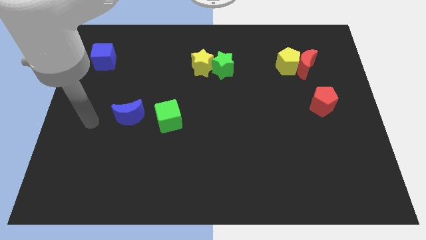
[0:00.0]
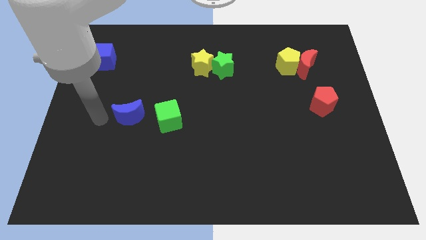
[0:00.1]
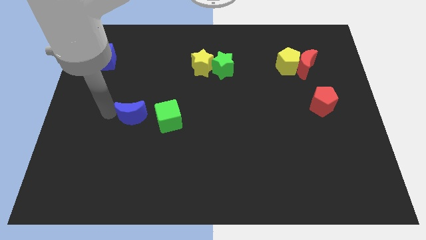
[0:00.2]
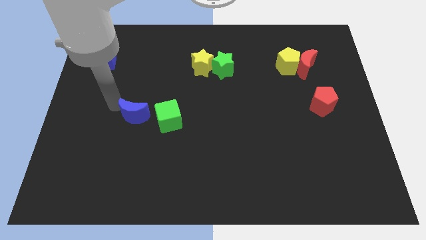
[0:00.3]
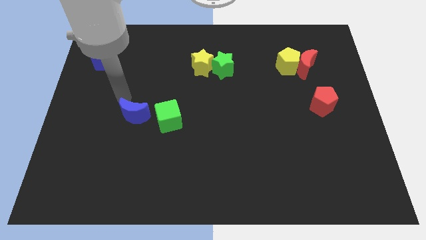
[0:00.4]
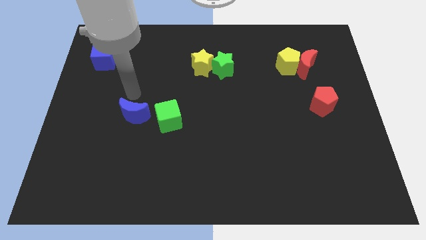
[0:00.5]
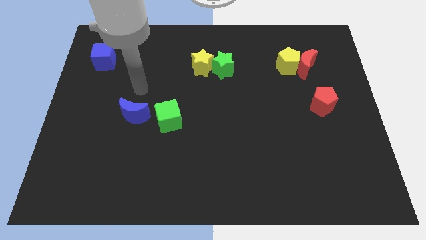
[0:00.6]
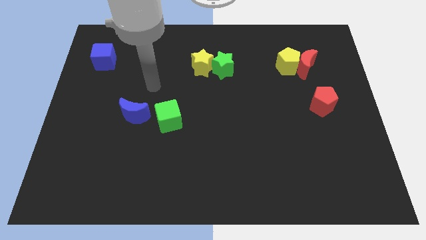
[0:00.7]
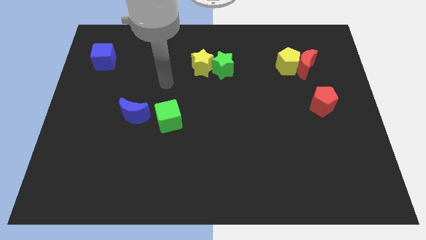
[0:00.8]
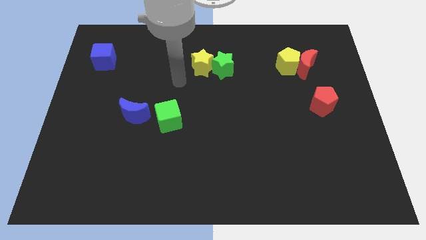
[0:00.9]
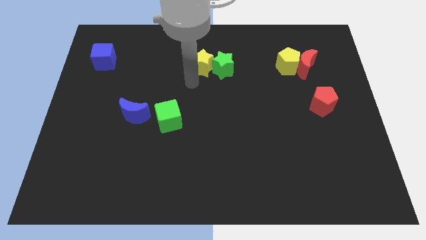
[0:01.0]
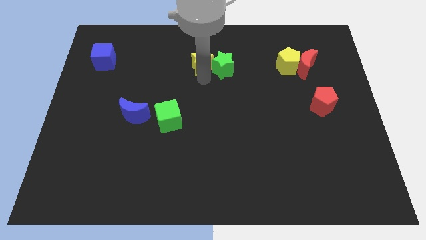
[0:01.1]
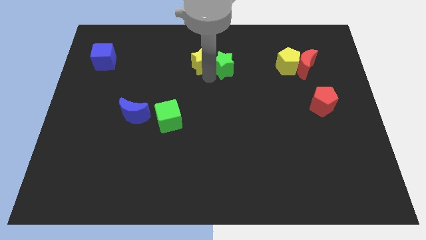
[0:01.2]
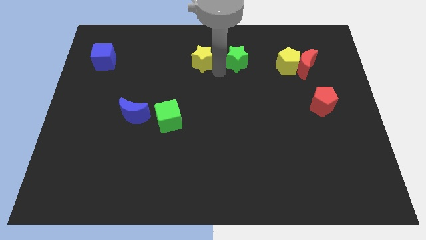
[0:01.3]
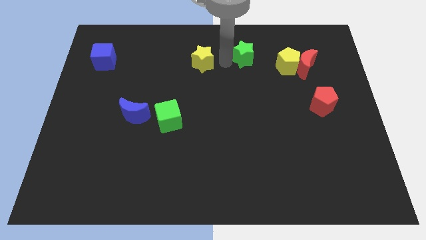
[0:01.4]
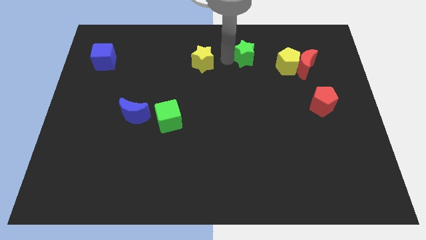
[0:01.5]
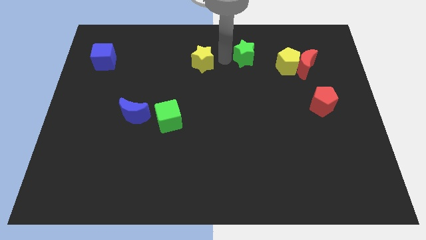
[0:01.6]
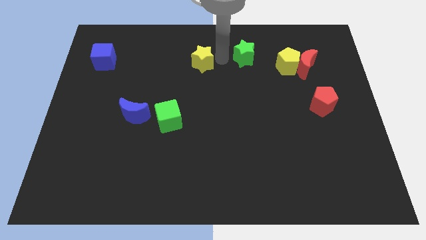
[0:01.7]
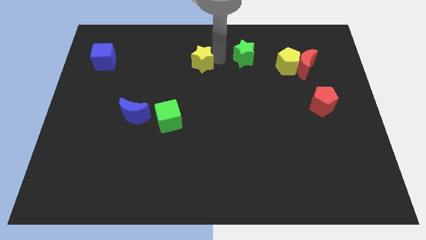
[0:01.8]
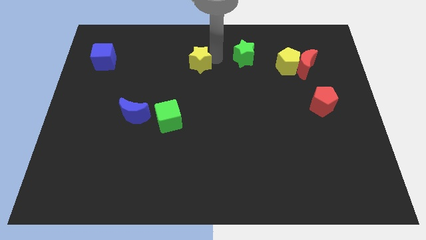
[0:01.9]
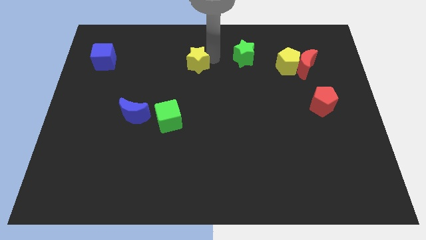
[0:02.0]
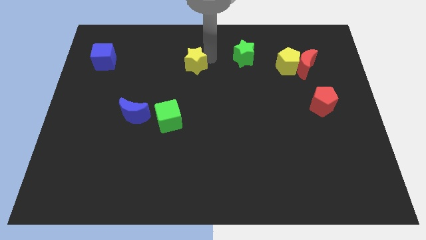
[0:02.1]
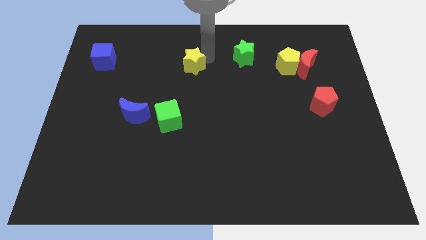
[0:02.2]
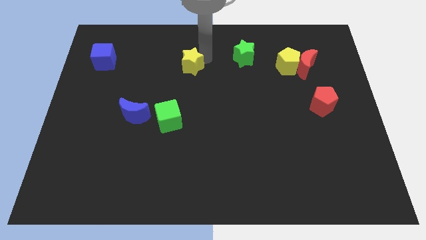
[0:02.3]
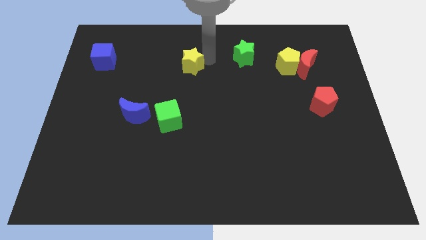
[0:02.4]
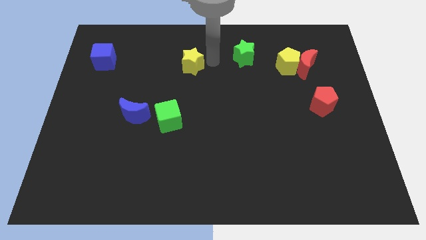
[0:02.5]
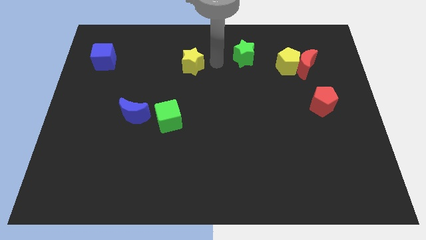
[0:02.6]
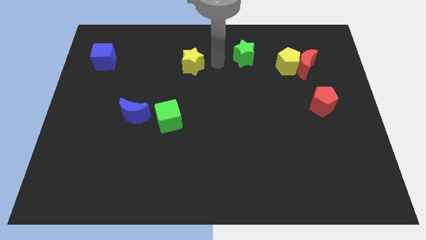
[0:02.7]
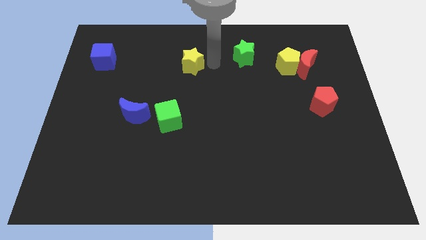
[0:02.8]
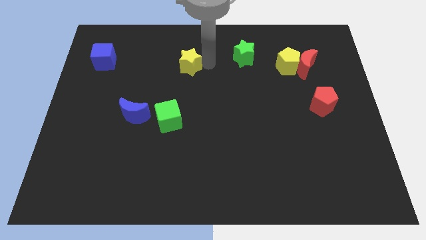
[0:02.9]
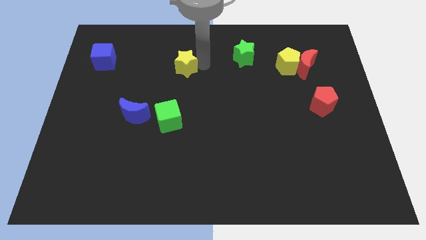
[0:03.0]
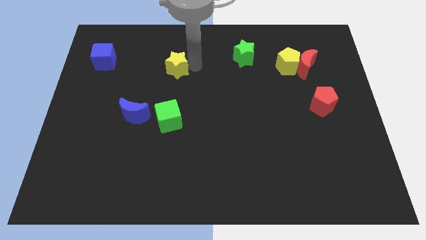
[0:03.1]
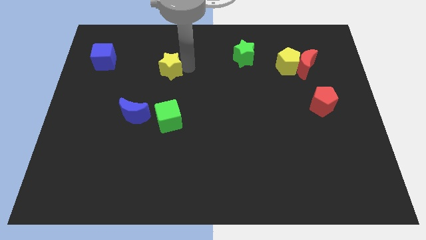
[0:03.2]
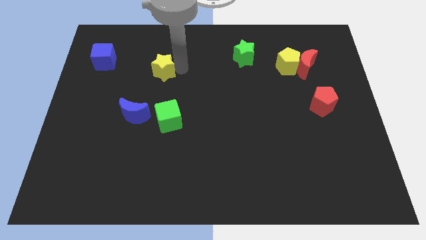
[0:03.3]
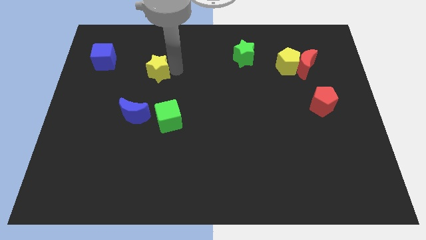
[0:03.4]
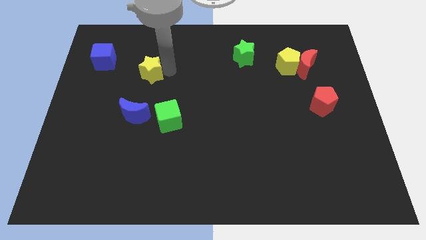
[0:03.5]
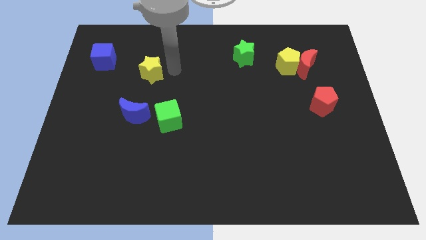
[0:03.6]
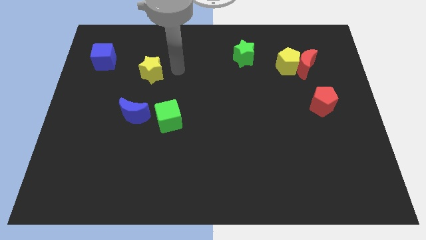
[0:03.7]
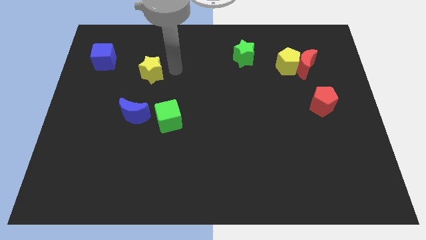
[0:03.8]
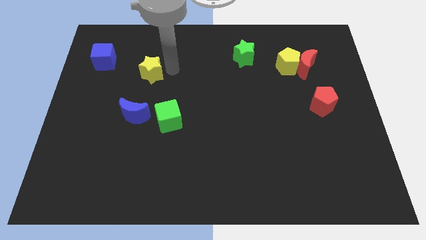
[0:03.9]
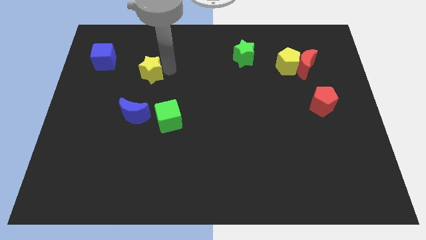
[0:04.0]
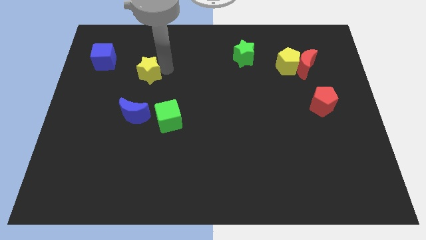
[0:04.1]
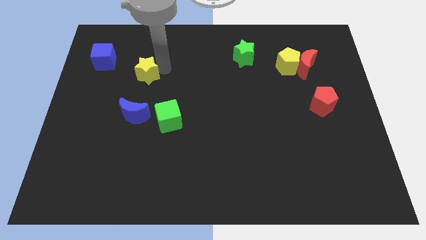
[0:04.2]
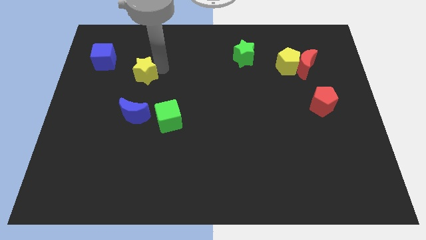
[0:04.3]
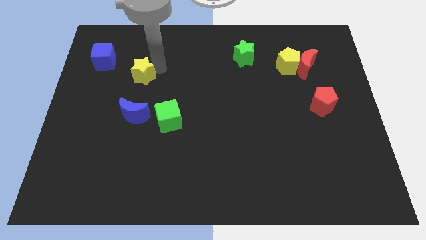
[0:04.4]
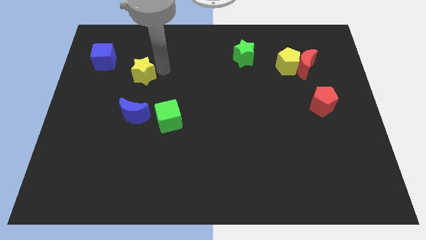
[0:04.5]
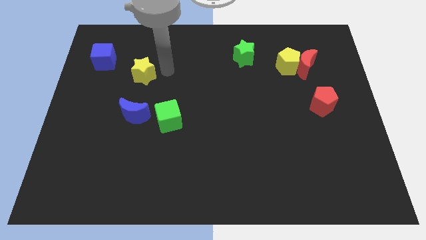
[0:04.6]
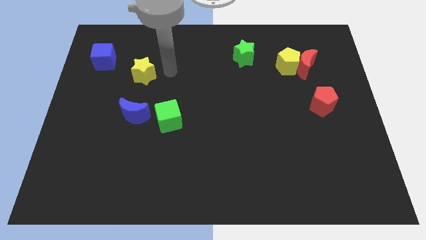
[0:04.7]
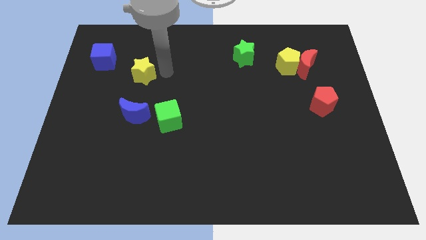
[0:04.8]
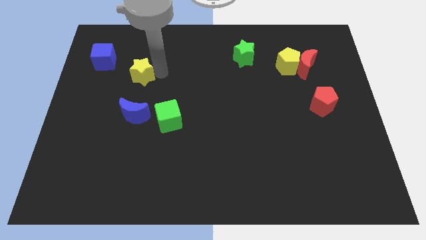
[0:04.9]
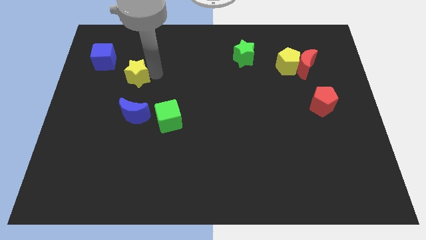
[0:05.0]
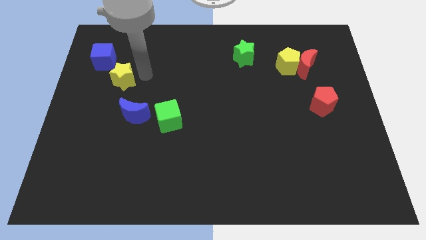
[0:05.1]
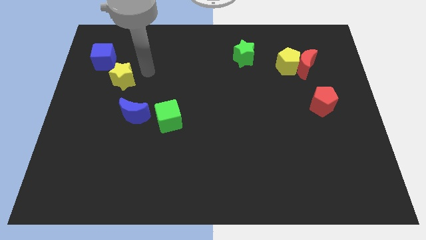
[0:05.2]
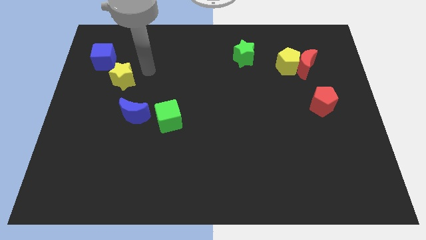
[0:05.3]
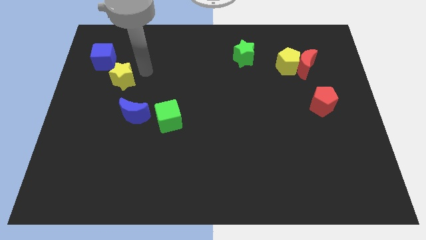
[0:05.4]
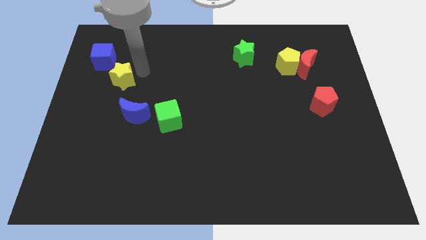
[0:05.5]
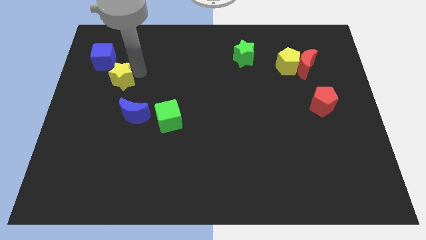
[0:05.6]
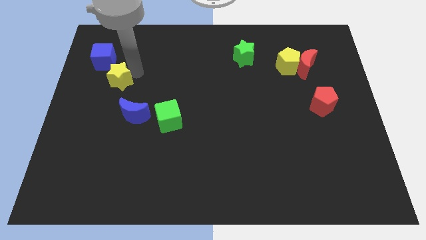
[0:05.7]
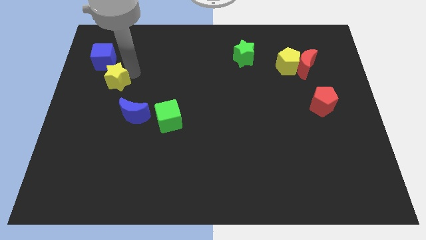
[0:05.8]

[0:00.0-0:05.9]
push the yellow star to the bottom of the blue cube

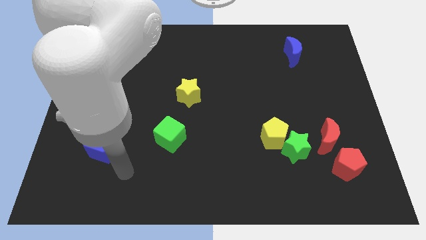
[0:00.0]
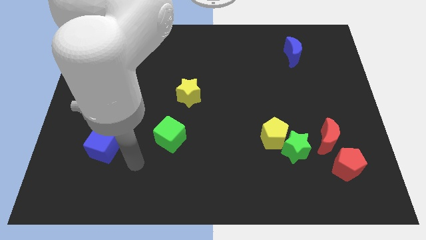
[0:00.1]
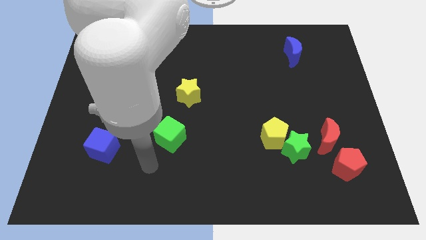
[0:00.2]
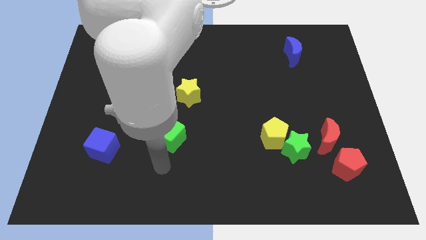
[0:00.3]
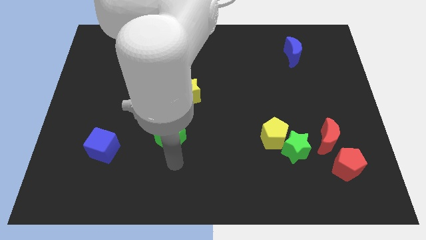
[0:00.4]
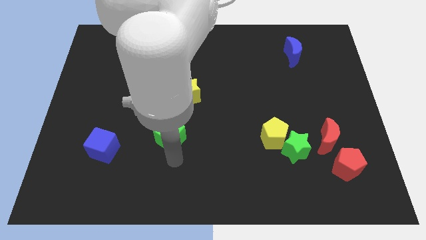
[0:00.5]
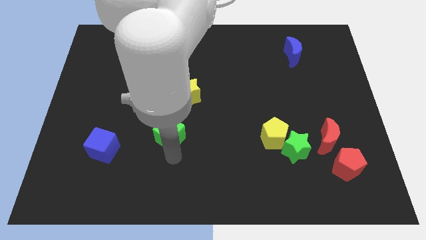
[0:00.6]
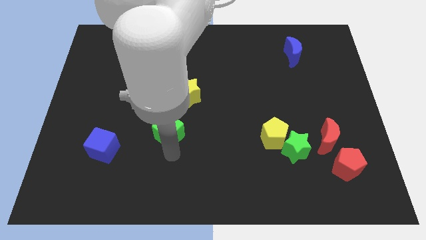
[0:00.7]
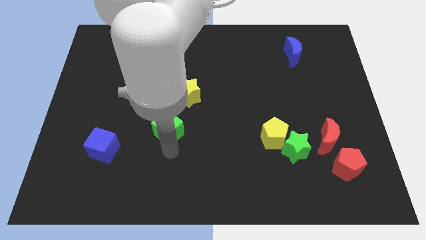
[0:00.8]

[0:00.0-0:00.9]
slide the green cube diagonally down and to the left of the yellow star
